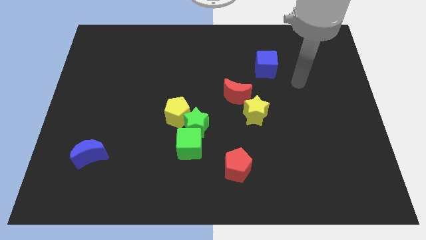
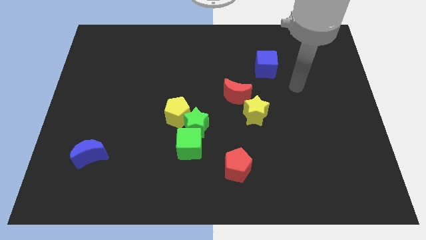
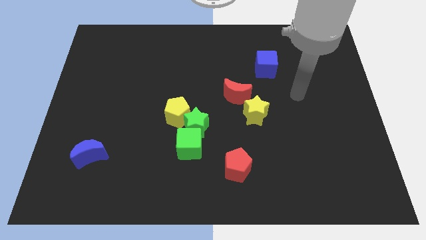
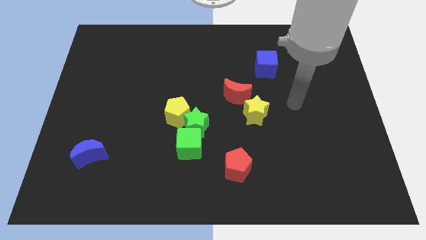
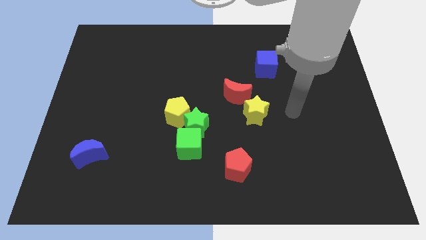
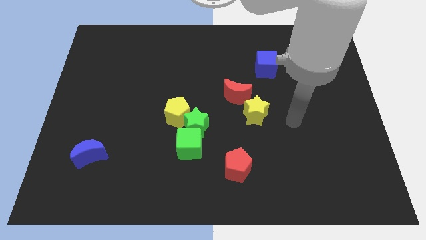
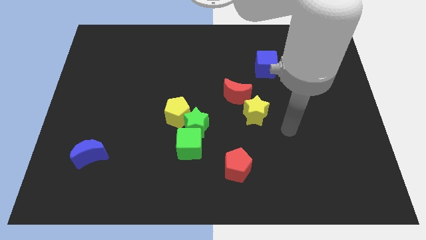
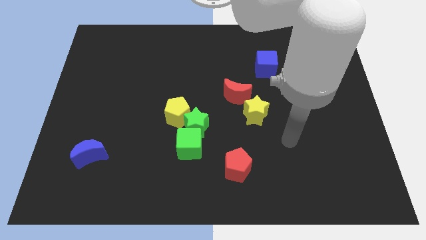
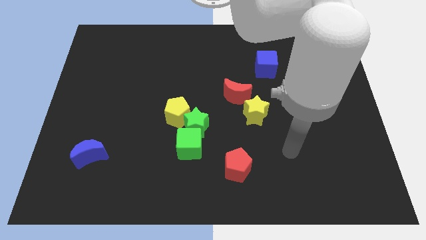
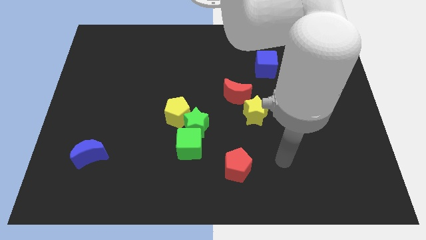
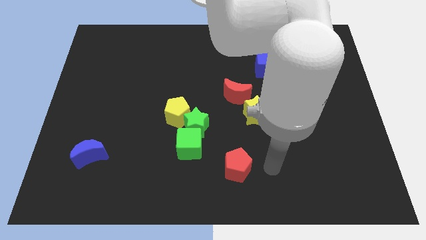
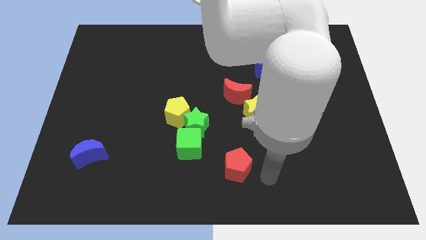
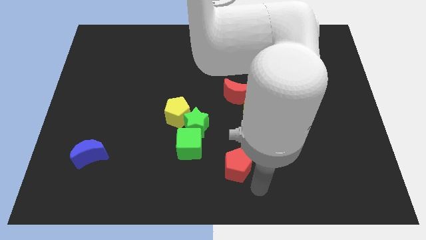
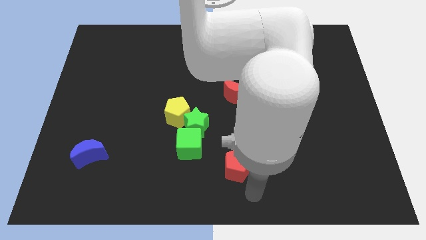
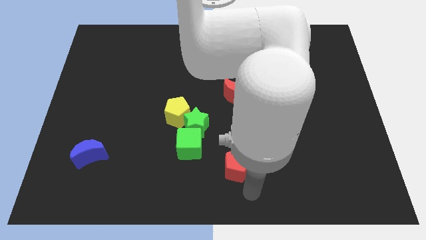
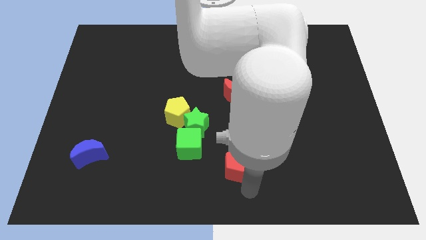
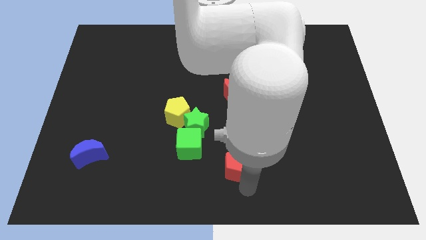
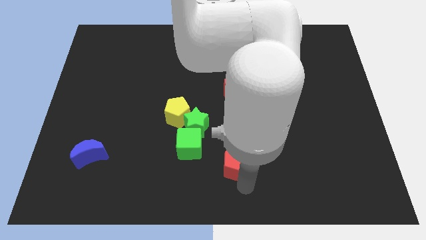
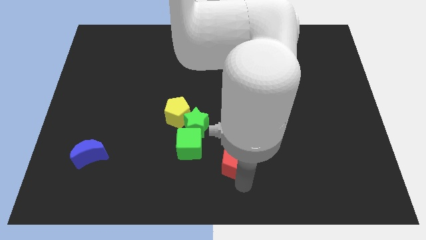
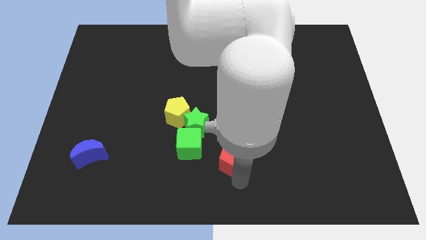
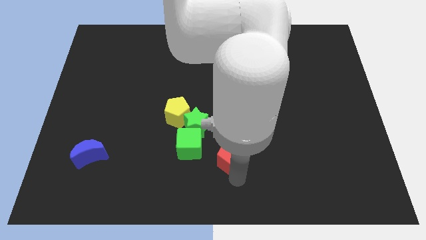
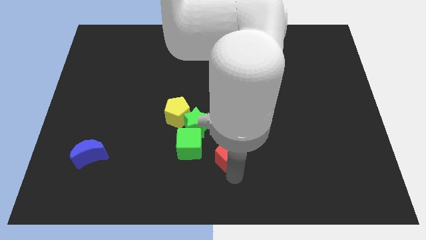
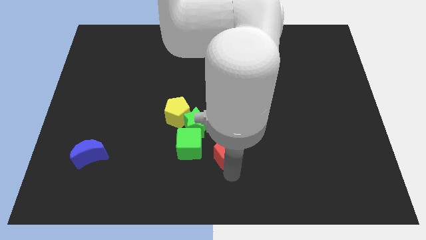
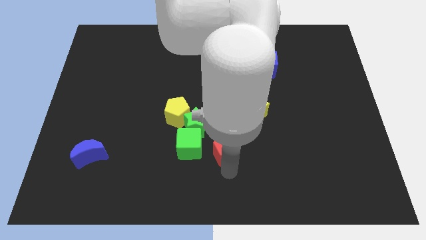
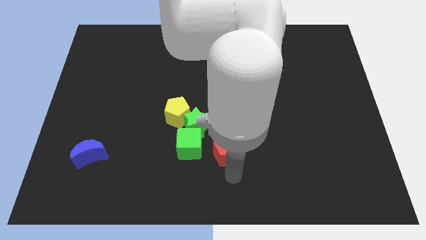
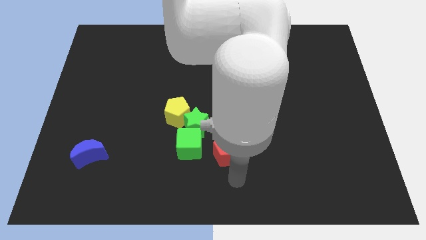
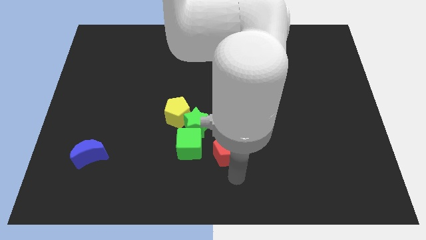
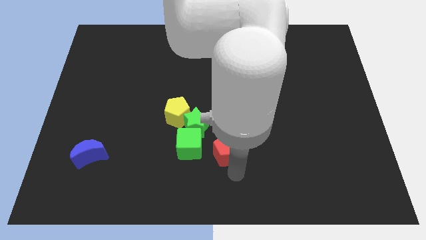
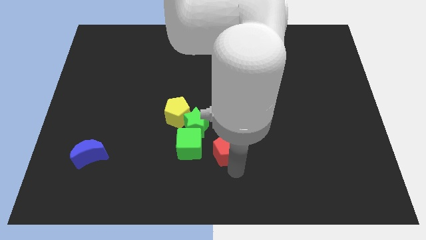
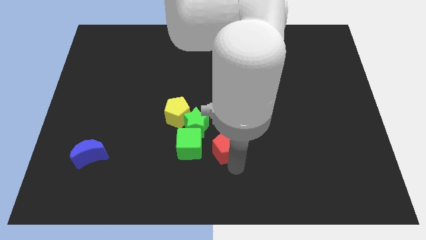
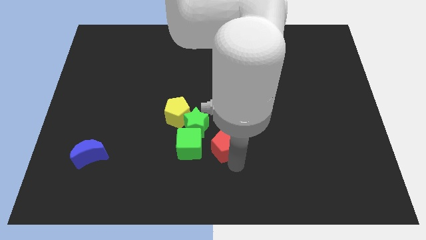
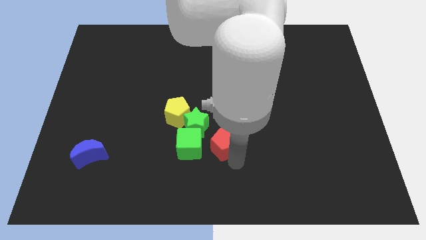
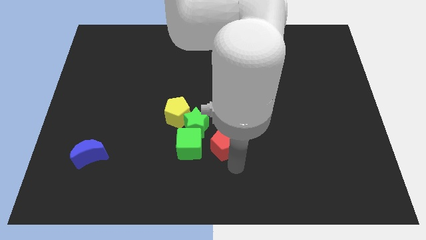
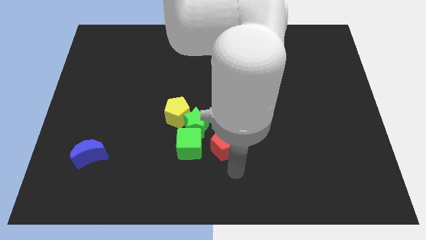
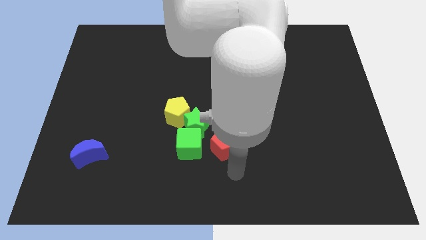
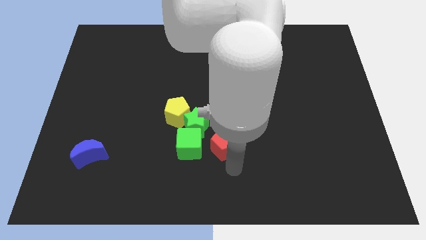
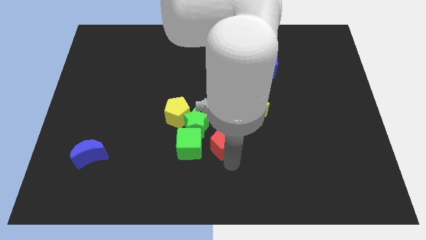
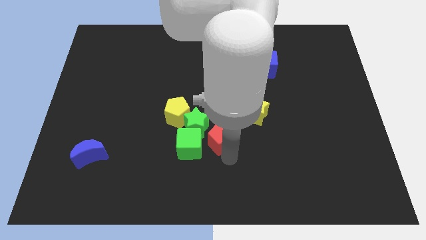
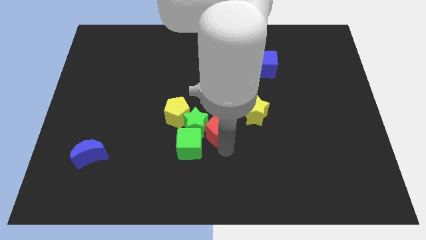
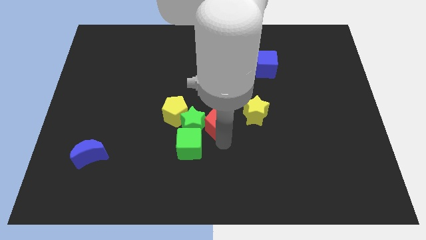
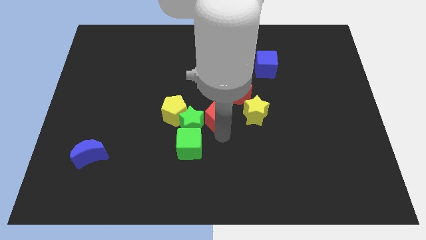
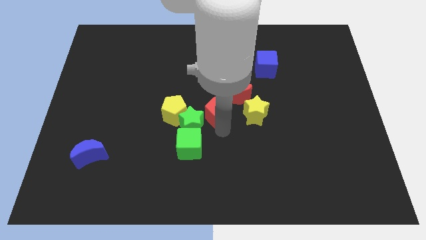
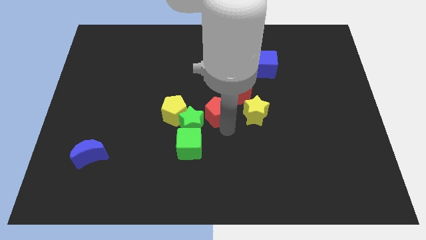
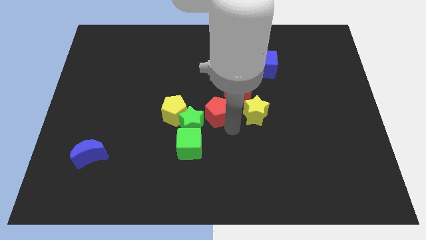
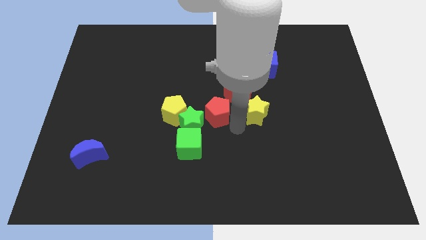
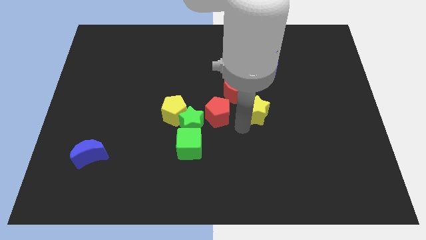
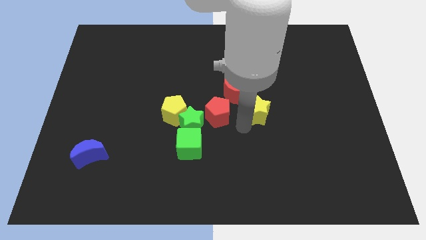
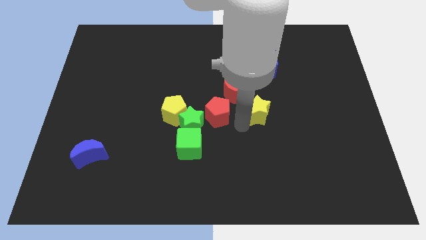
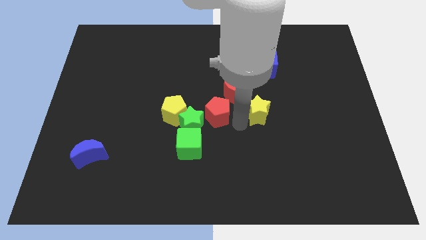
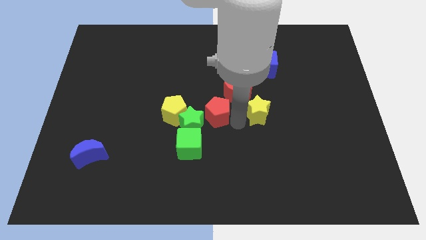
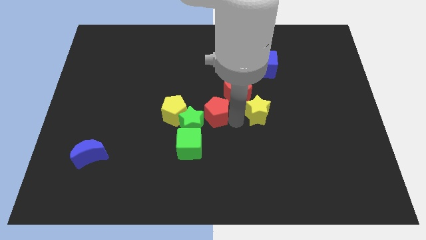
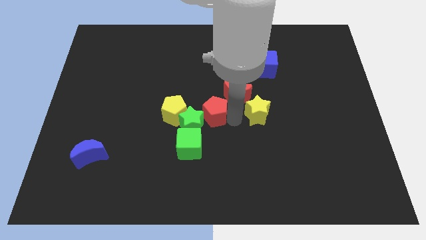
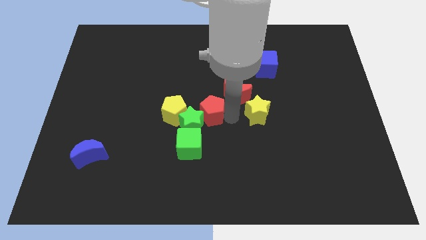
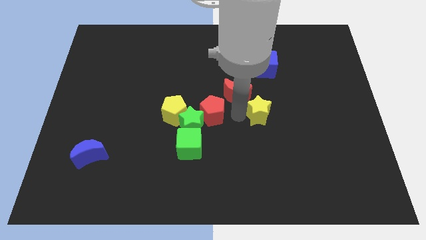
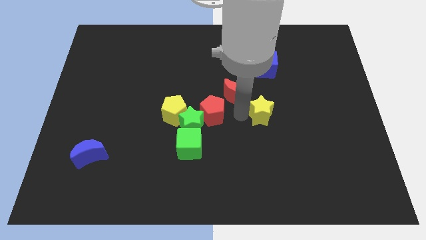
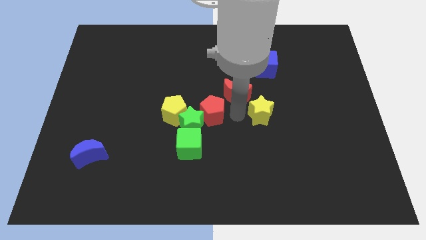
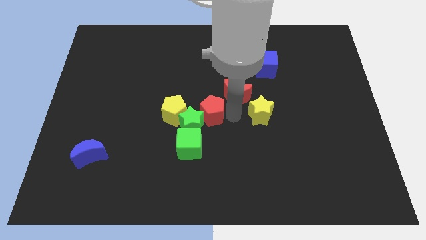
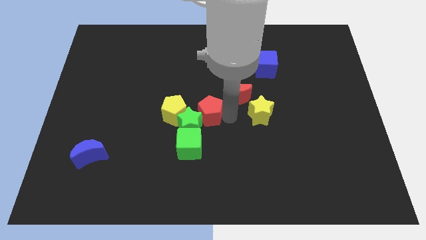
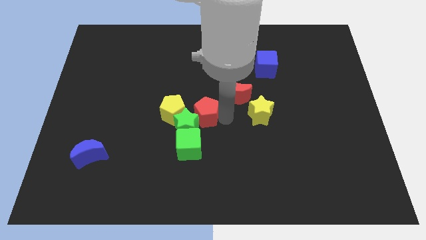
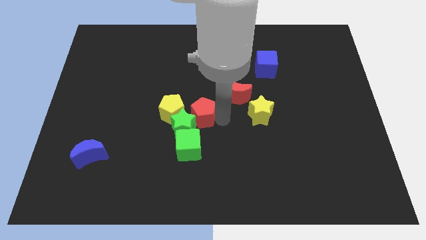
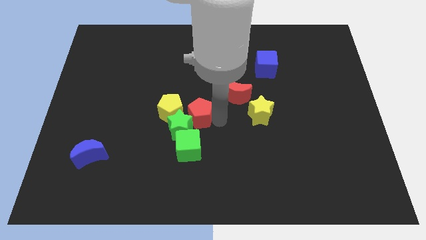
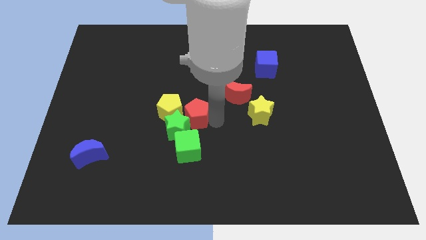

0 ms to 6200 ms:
slide the red pentagon close to the yellow pentagon

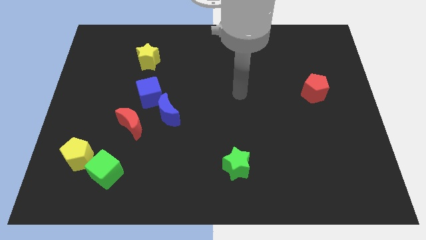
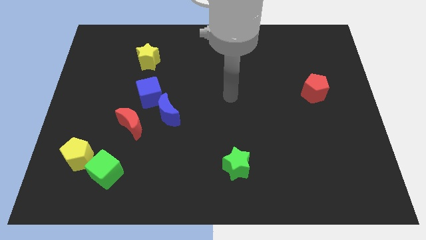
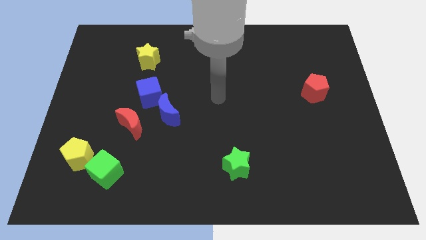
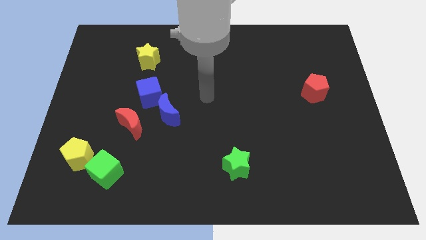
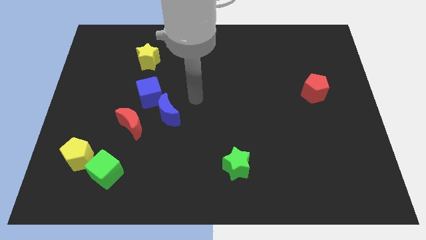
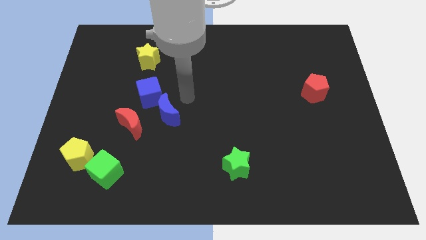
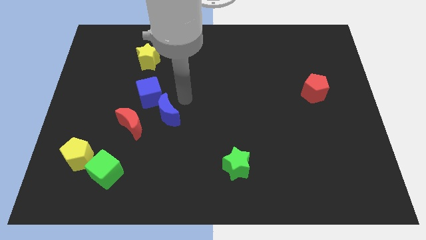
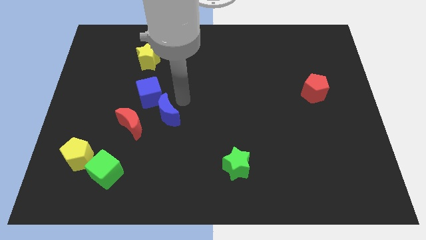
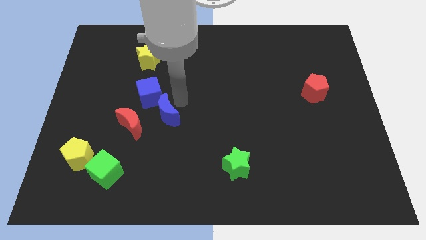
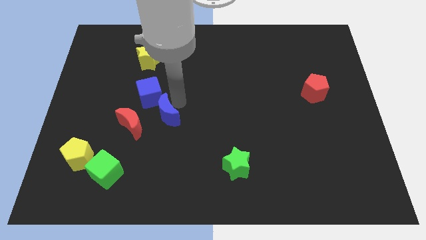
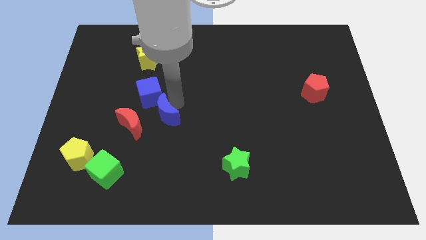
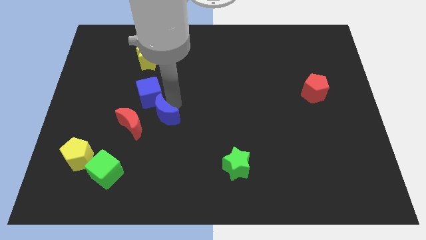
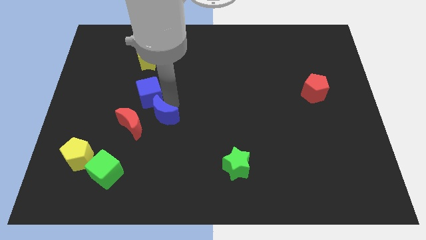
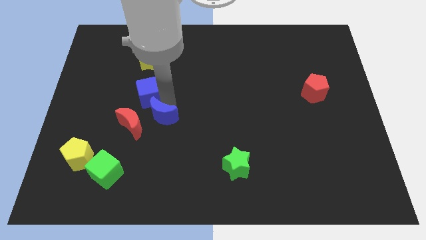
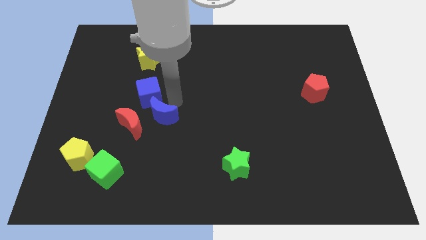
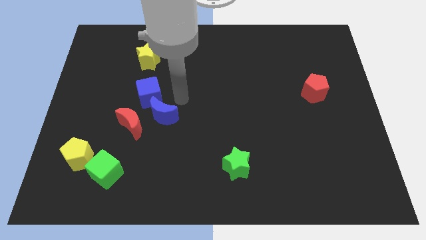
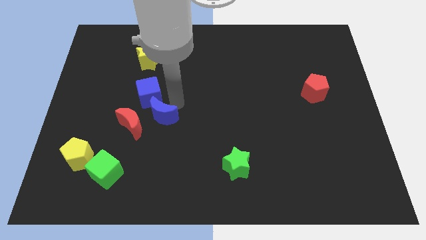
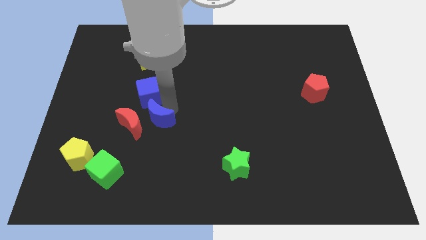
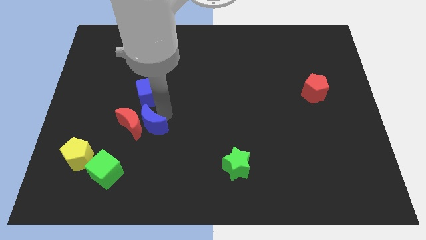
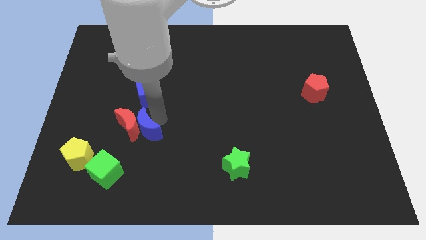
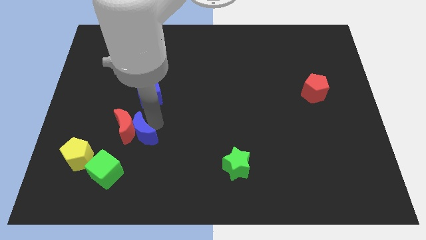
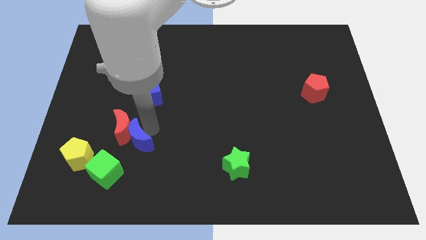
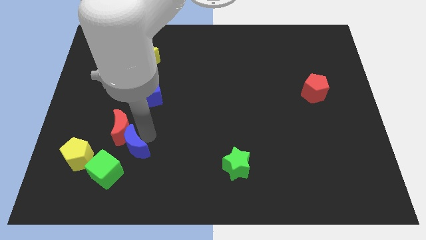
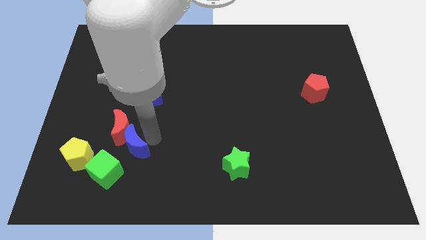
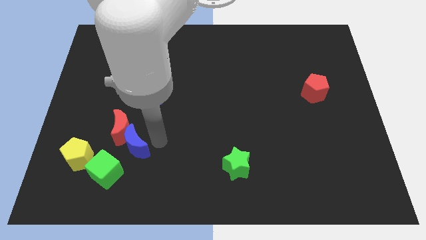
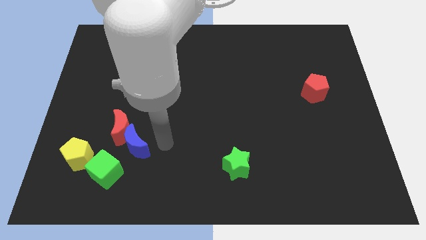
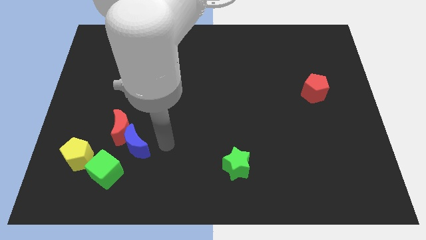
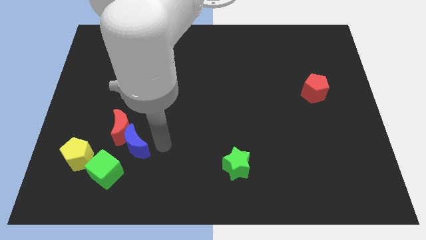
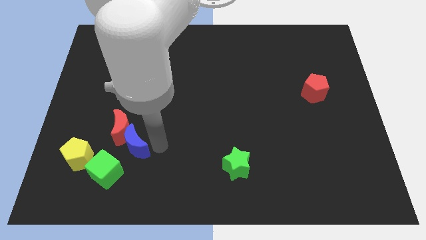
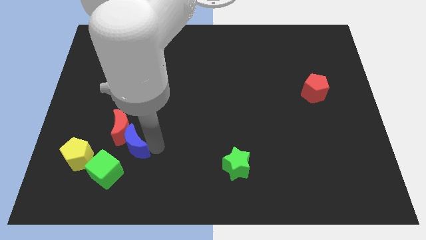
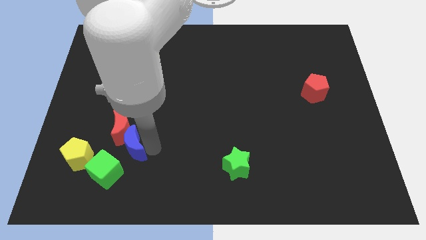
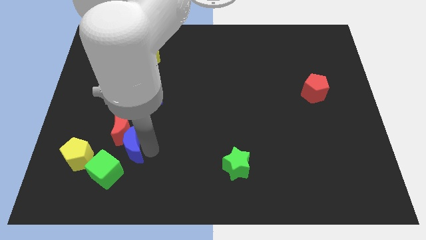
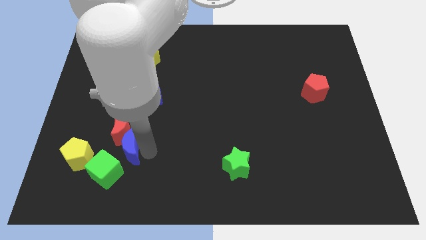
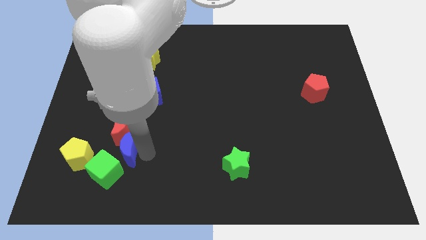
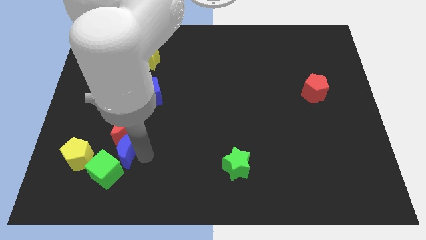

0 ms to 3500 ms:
put the blue moon next to the green cube
